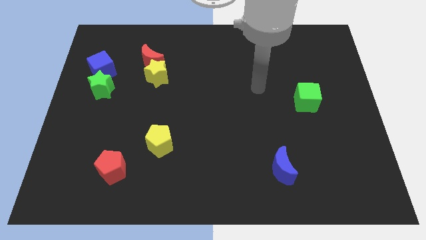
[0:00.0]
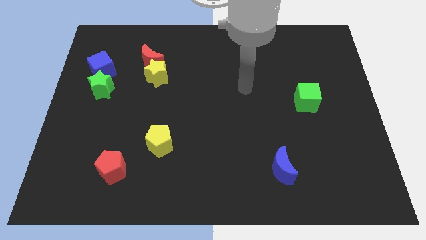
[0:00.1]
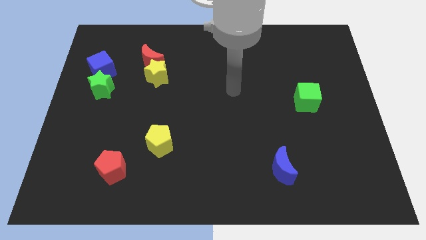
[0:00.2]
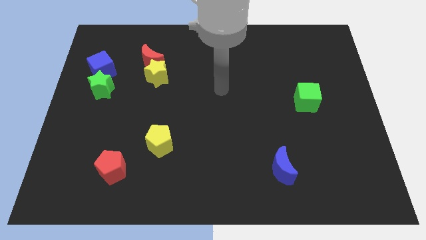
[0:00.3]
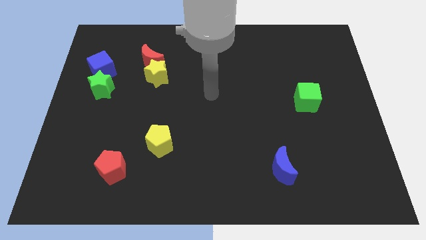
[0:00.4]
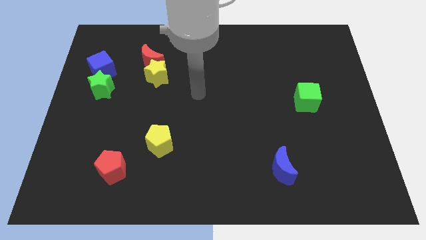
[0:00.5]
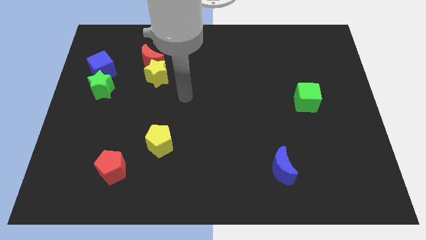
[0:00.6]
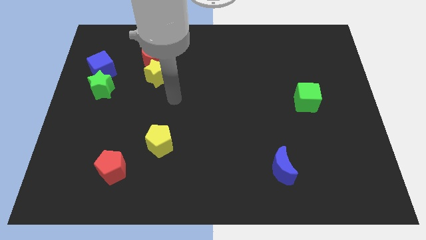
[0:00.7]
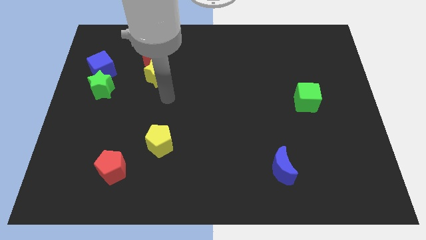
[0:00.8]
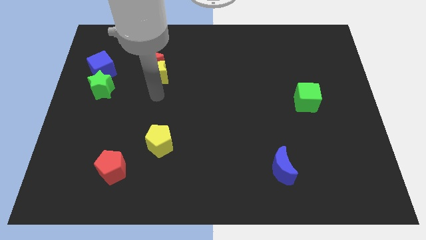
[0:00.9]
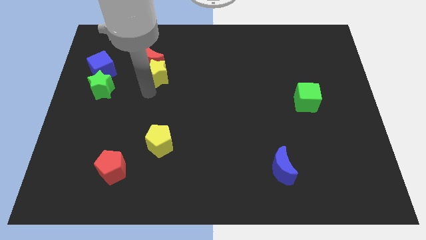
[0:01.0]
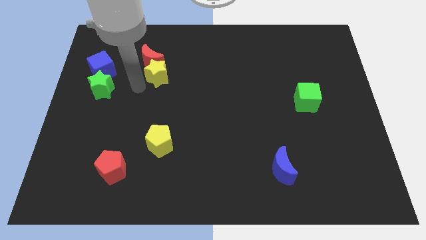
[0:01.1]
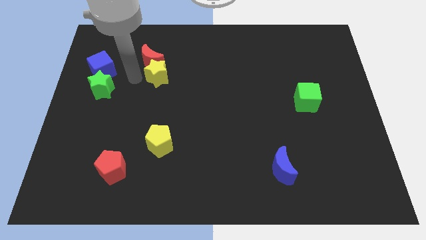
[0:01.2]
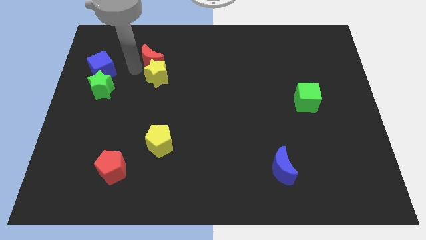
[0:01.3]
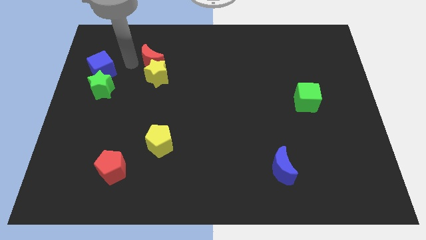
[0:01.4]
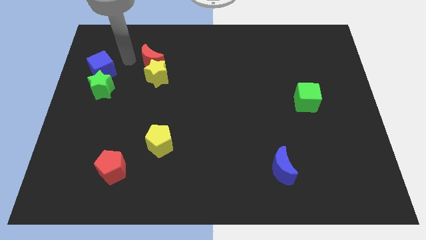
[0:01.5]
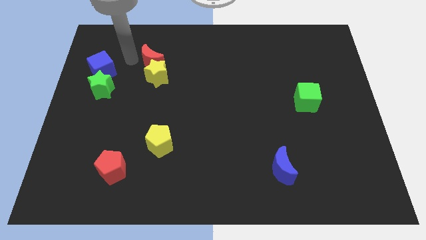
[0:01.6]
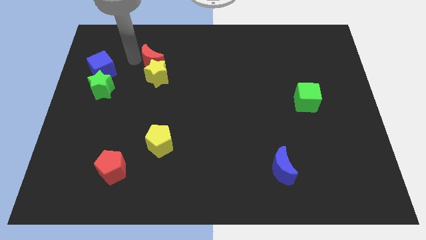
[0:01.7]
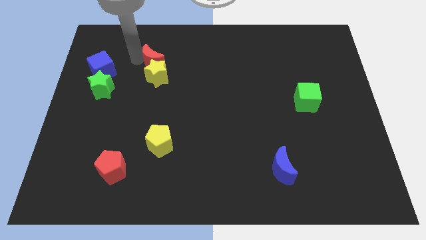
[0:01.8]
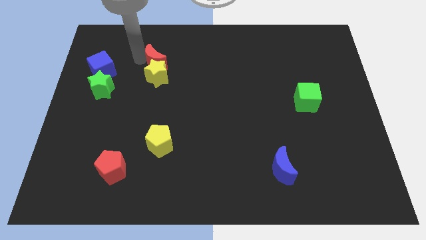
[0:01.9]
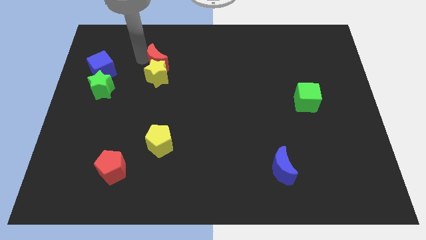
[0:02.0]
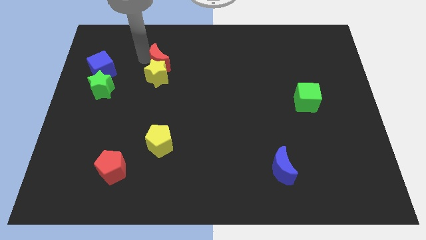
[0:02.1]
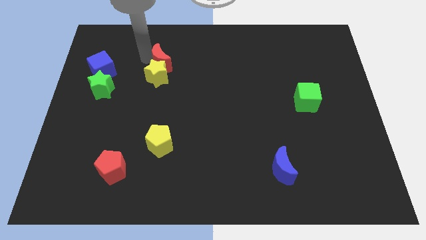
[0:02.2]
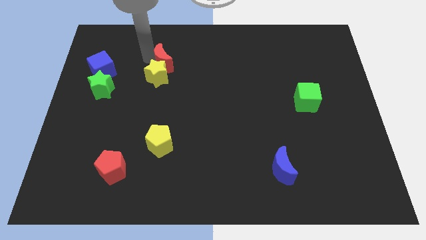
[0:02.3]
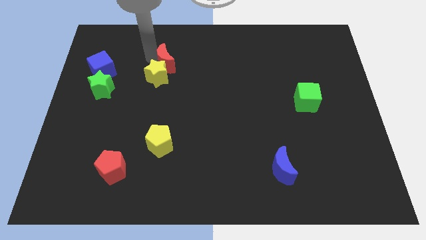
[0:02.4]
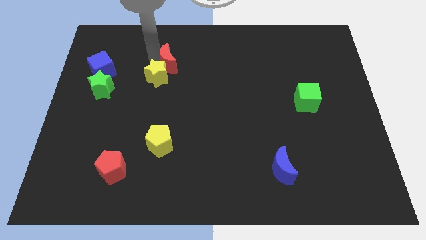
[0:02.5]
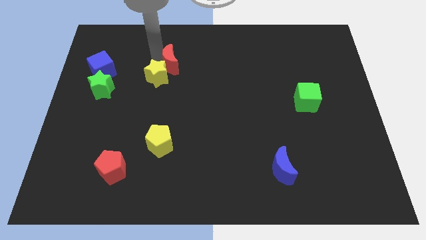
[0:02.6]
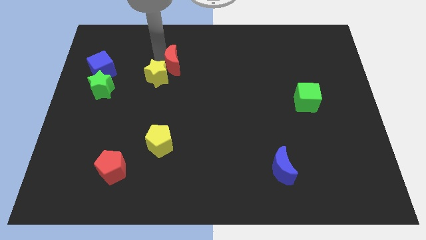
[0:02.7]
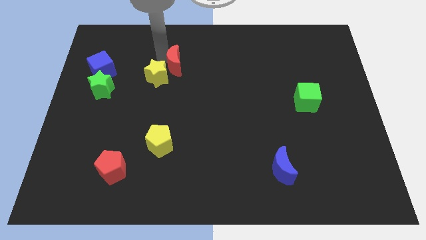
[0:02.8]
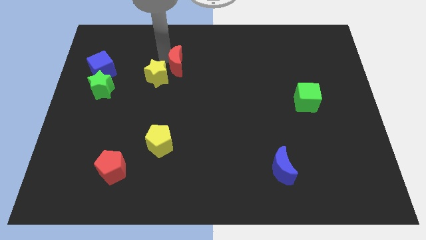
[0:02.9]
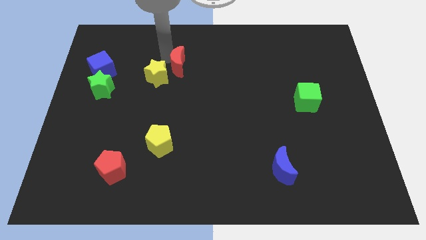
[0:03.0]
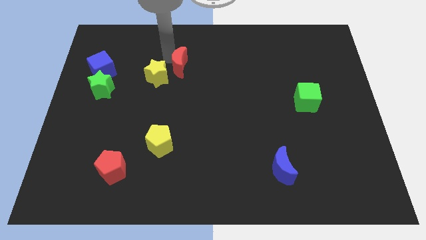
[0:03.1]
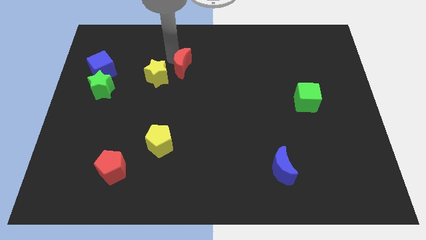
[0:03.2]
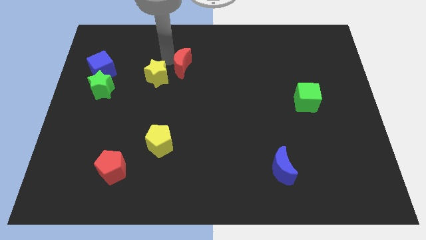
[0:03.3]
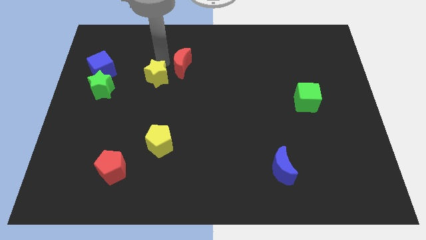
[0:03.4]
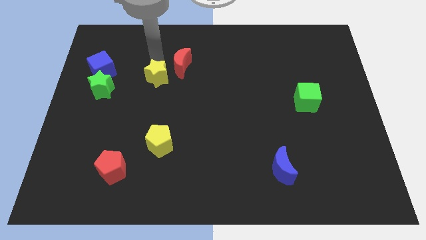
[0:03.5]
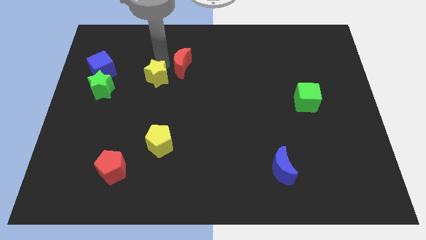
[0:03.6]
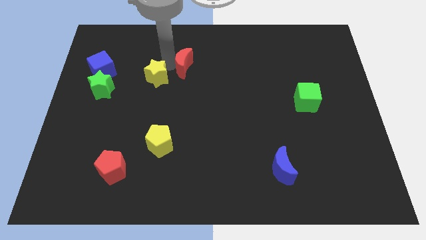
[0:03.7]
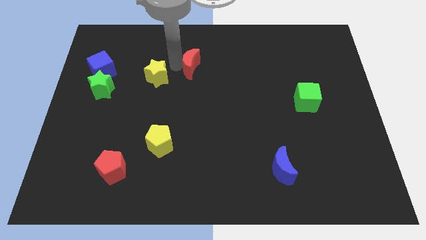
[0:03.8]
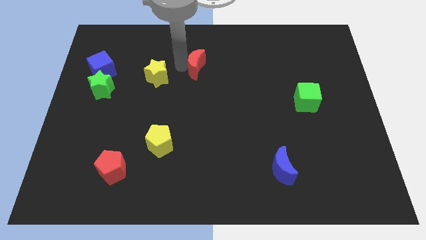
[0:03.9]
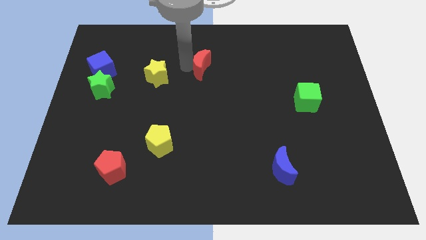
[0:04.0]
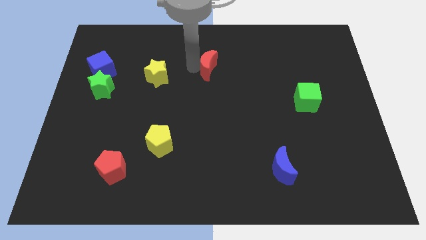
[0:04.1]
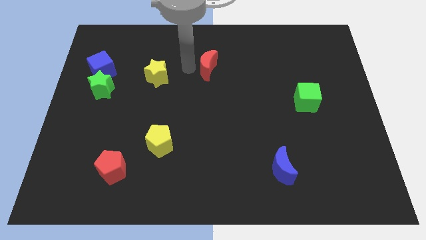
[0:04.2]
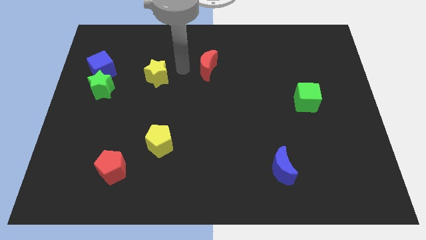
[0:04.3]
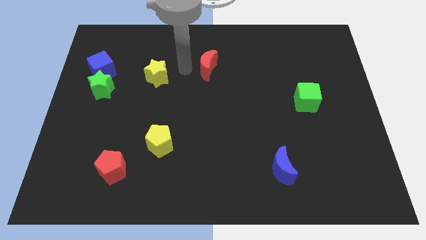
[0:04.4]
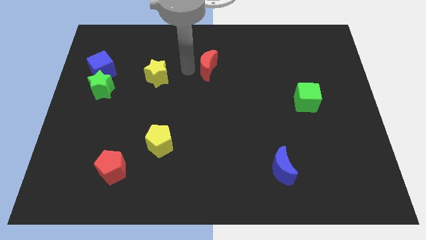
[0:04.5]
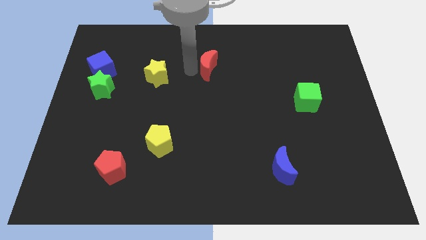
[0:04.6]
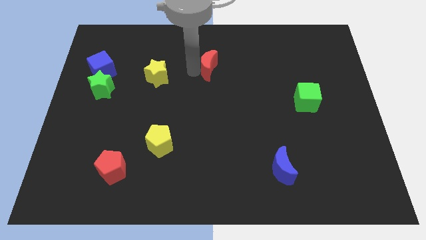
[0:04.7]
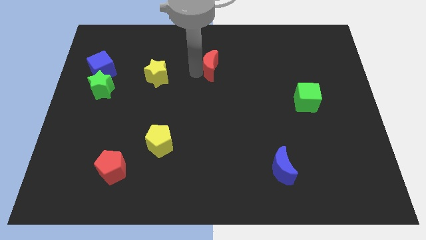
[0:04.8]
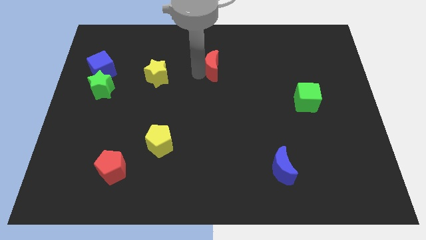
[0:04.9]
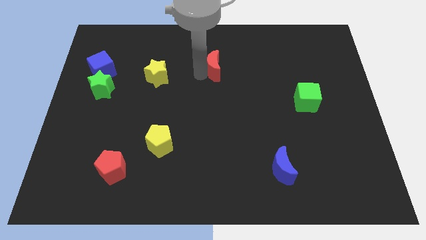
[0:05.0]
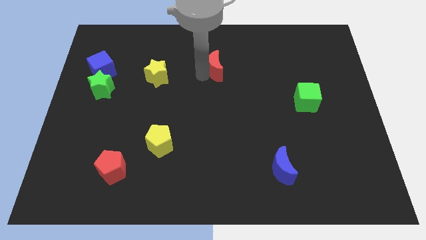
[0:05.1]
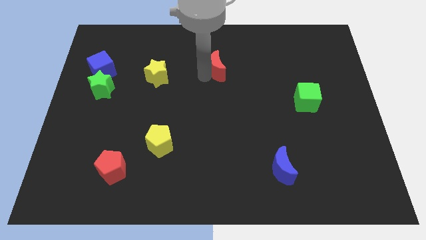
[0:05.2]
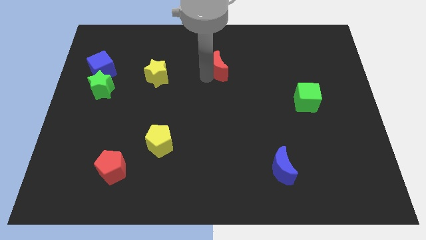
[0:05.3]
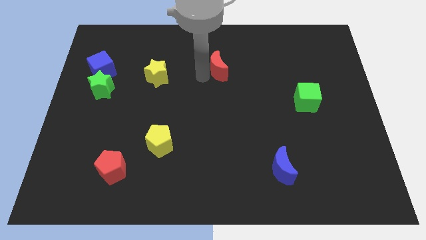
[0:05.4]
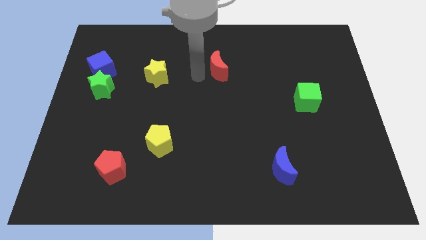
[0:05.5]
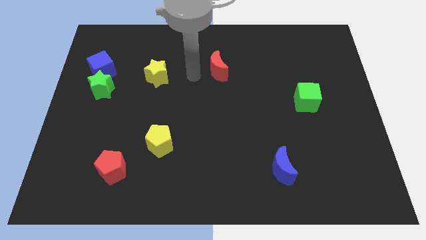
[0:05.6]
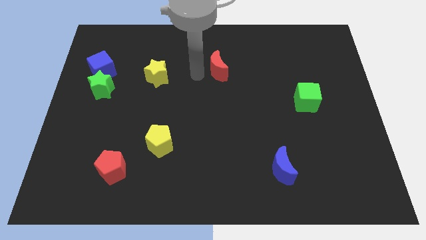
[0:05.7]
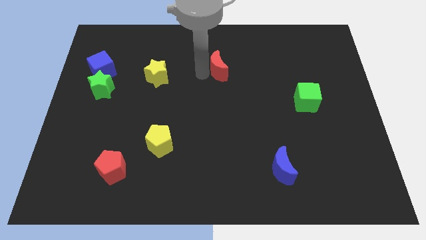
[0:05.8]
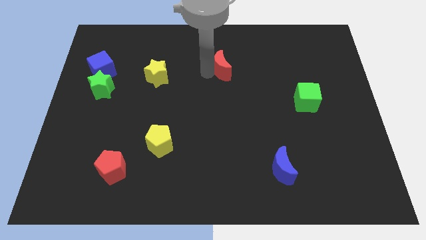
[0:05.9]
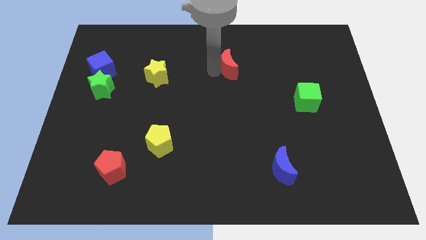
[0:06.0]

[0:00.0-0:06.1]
move the red moon right

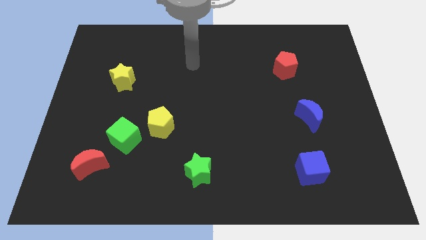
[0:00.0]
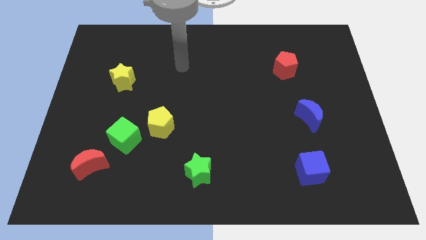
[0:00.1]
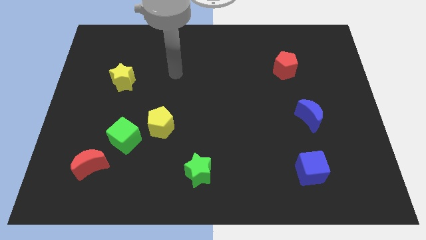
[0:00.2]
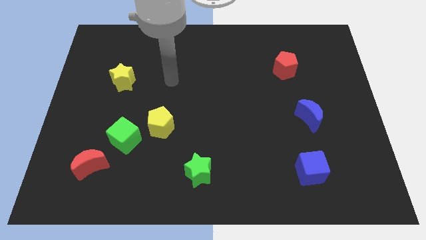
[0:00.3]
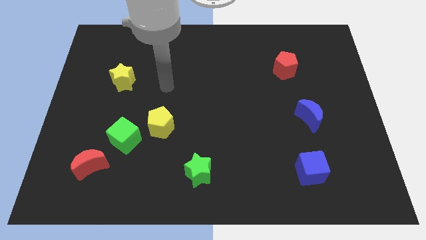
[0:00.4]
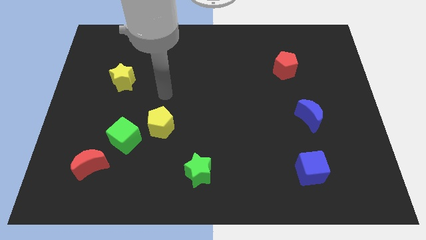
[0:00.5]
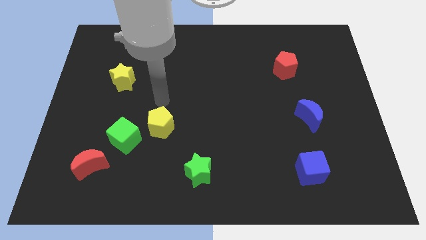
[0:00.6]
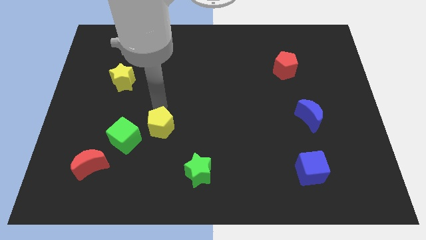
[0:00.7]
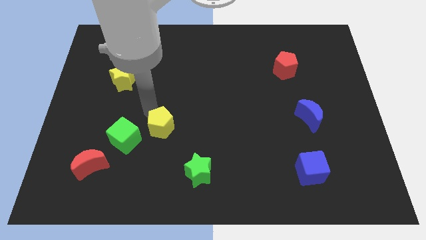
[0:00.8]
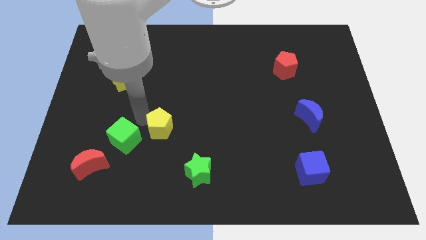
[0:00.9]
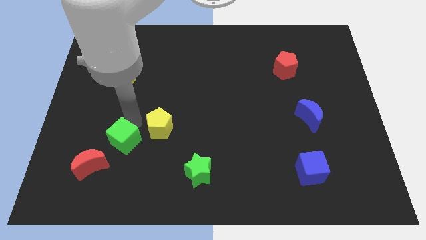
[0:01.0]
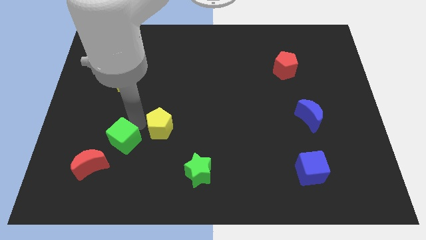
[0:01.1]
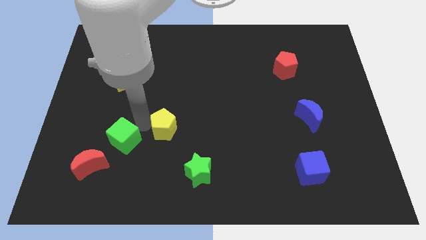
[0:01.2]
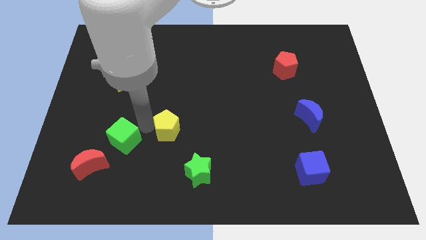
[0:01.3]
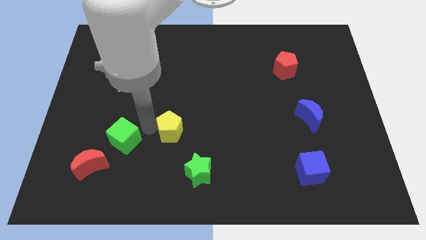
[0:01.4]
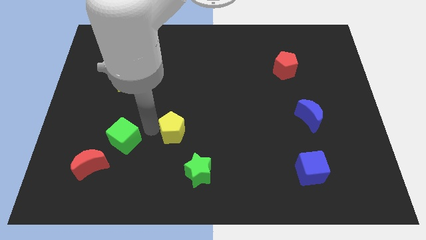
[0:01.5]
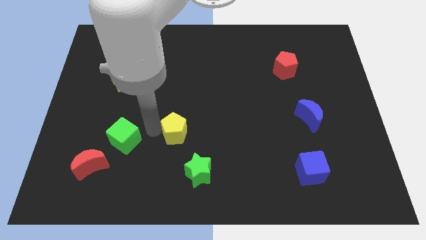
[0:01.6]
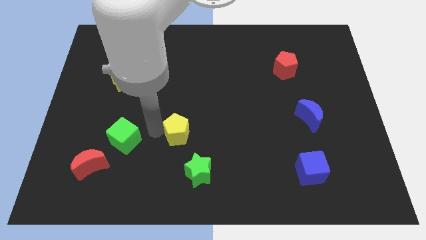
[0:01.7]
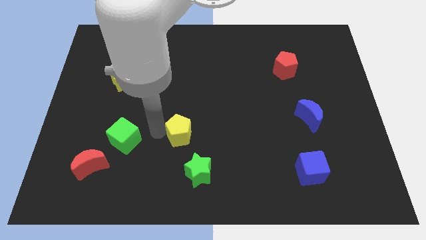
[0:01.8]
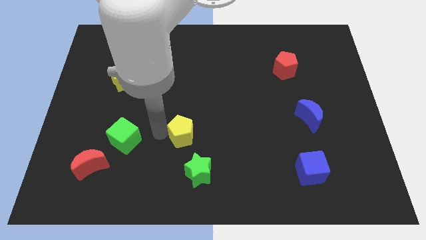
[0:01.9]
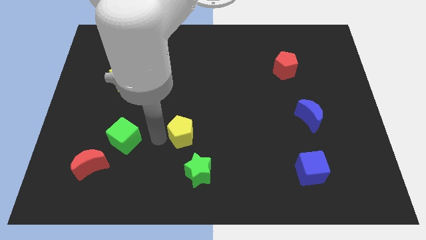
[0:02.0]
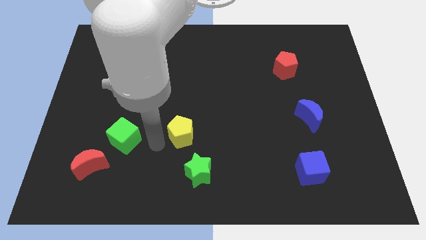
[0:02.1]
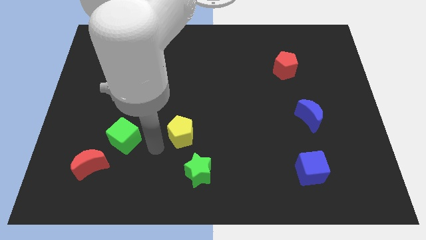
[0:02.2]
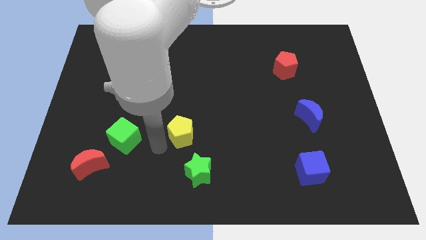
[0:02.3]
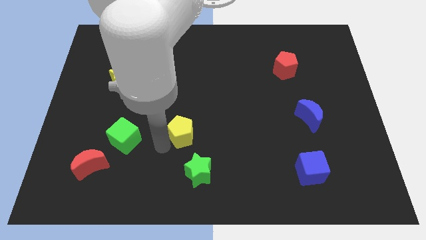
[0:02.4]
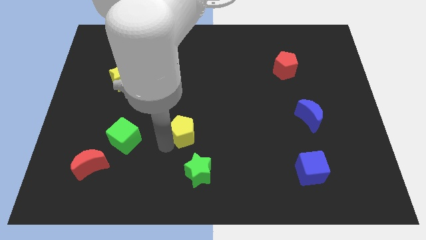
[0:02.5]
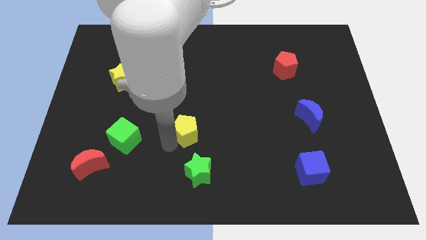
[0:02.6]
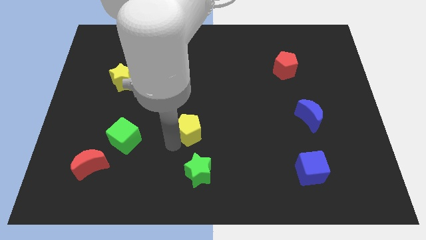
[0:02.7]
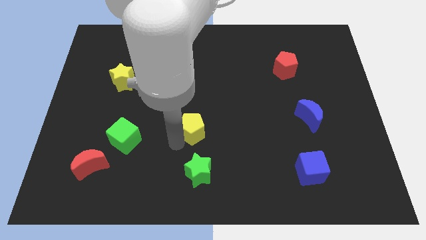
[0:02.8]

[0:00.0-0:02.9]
slightly slide the yellow pentagon right
